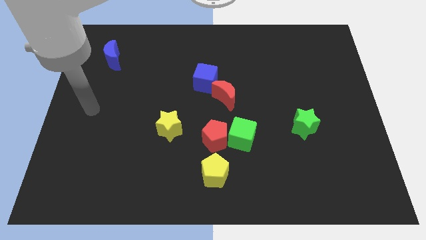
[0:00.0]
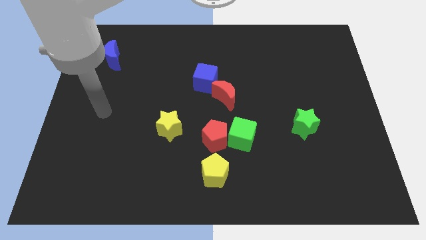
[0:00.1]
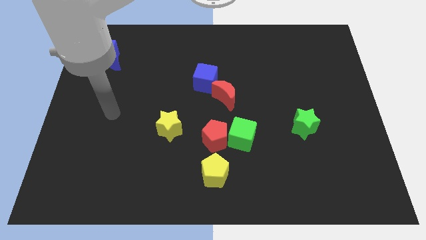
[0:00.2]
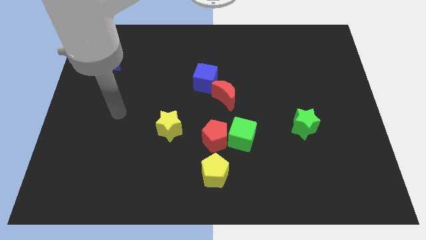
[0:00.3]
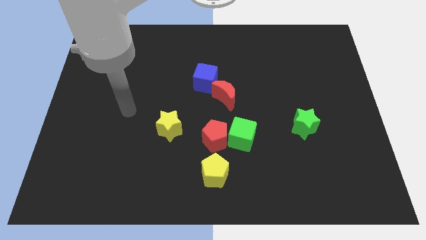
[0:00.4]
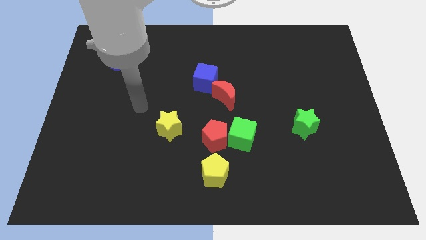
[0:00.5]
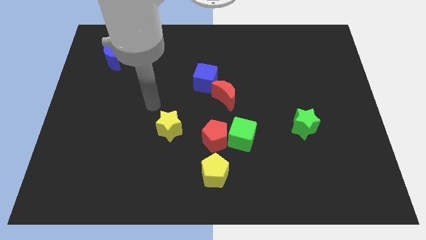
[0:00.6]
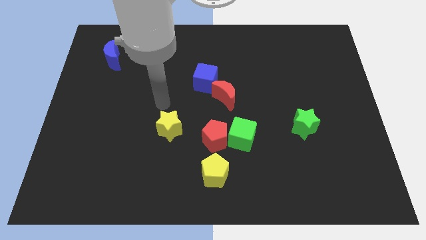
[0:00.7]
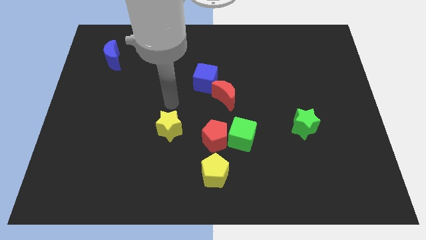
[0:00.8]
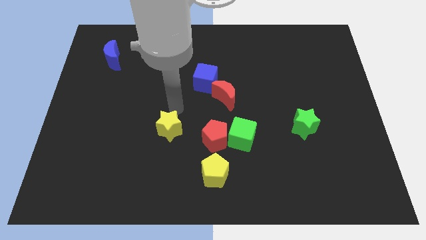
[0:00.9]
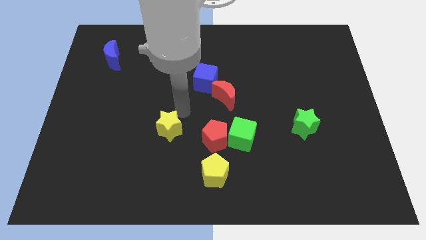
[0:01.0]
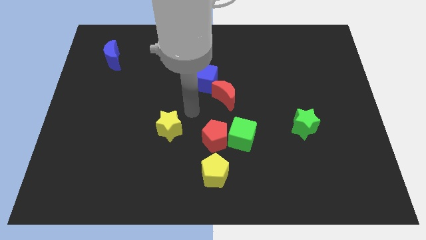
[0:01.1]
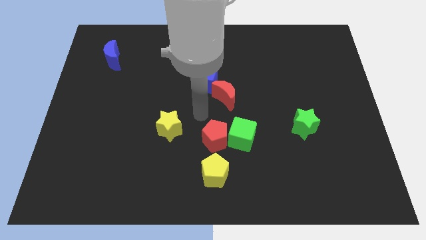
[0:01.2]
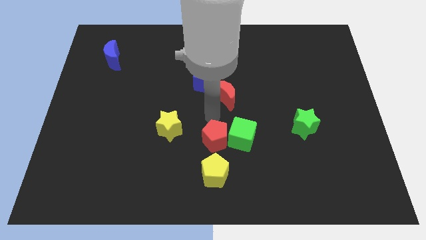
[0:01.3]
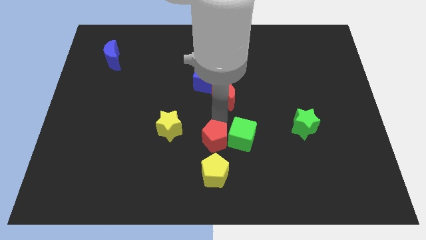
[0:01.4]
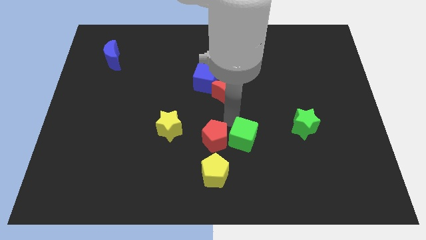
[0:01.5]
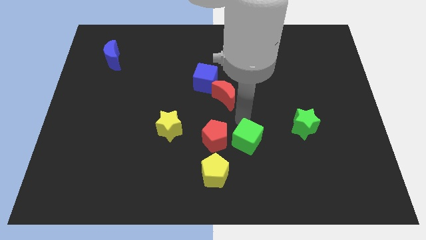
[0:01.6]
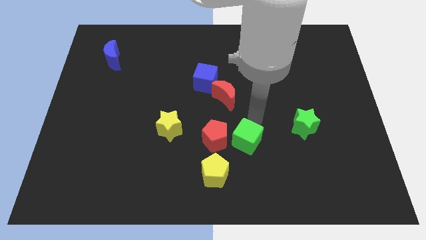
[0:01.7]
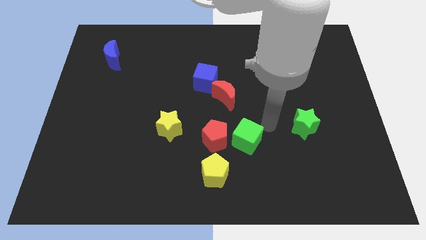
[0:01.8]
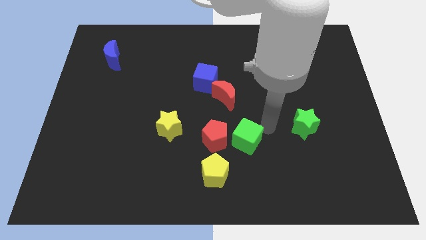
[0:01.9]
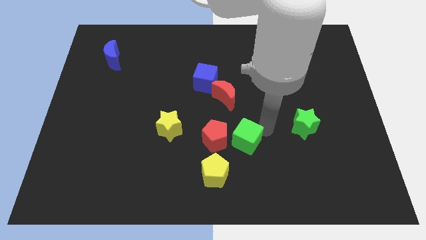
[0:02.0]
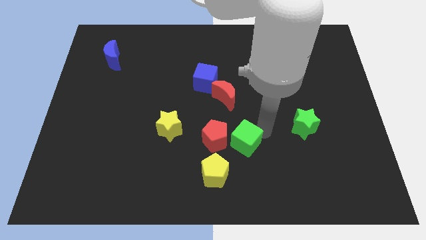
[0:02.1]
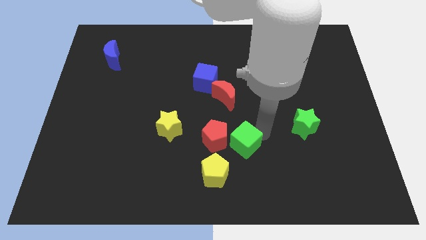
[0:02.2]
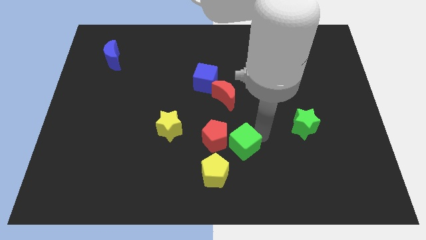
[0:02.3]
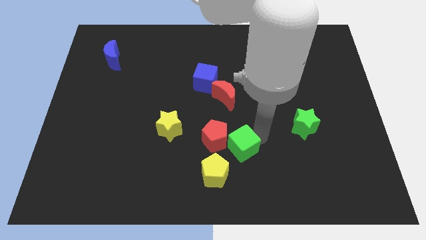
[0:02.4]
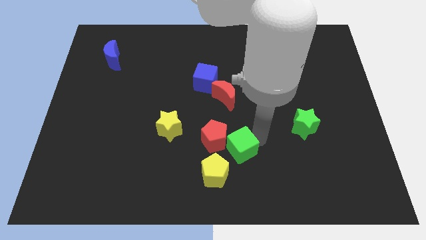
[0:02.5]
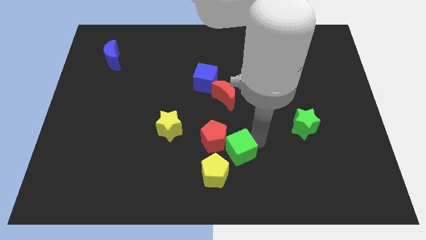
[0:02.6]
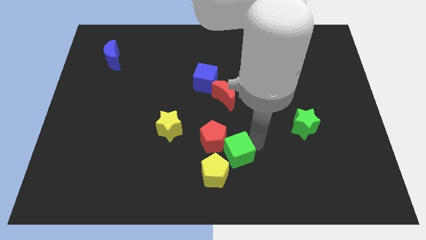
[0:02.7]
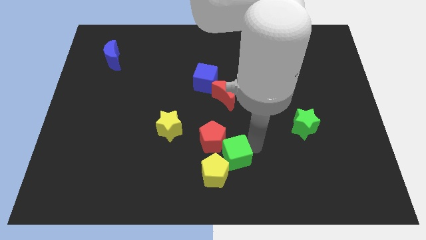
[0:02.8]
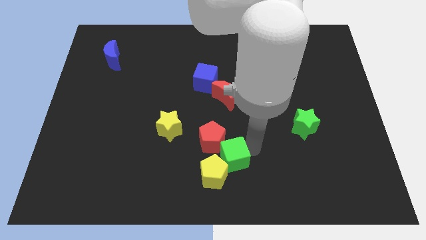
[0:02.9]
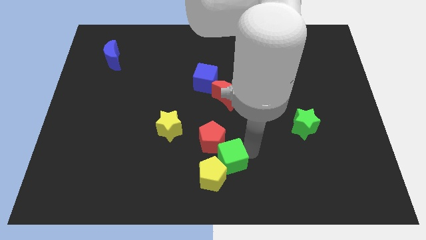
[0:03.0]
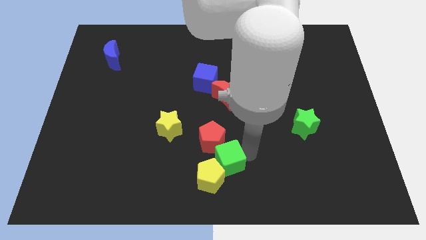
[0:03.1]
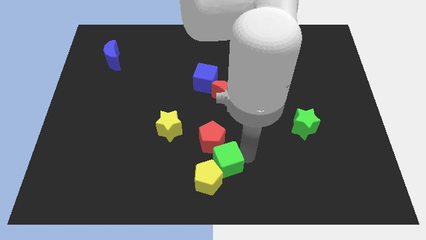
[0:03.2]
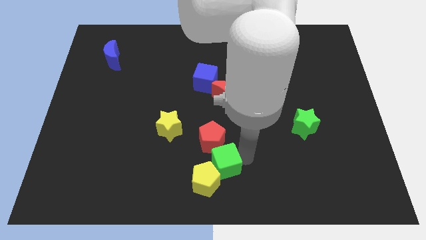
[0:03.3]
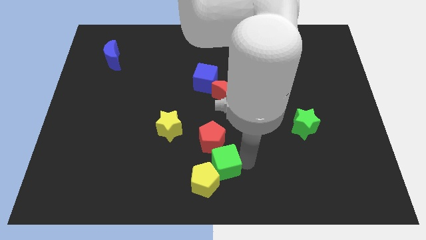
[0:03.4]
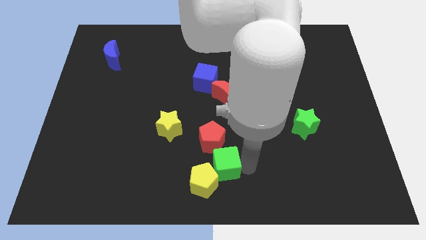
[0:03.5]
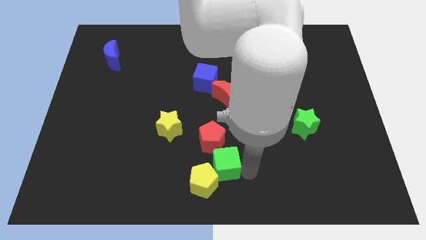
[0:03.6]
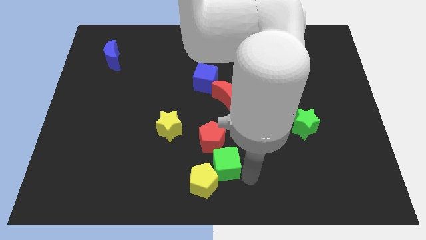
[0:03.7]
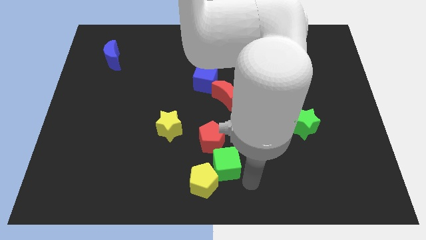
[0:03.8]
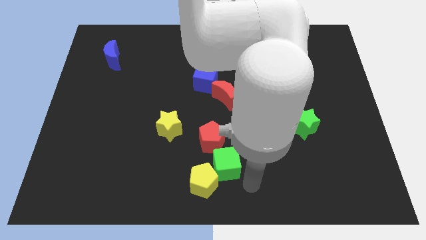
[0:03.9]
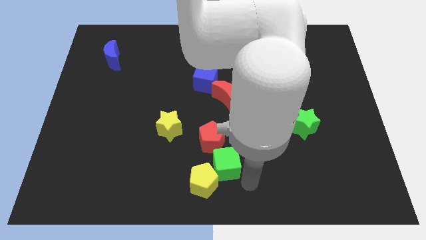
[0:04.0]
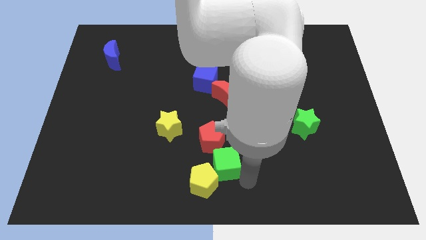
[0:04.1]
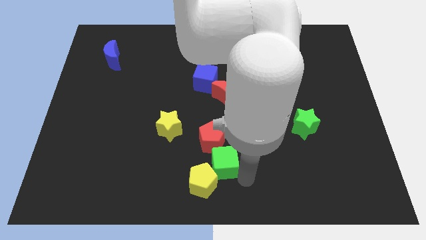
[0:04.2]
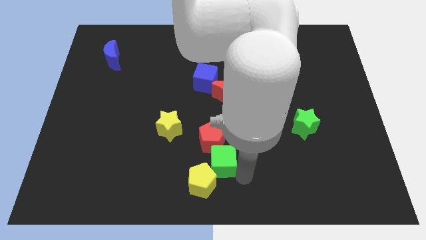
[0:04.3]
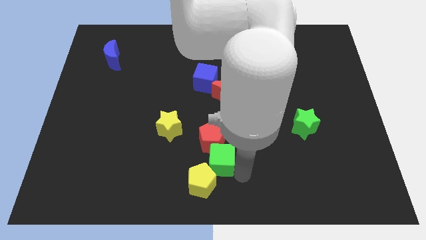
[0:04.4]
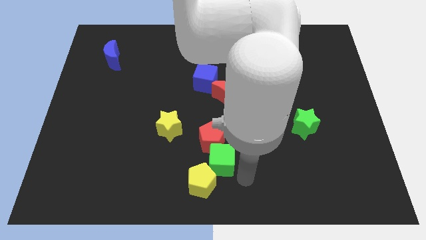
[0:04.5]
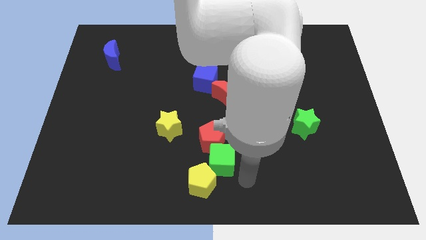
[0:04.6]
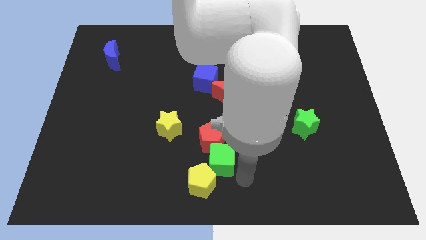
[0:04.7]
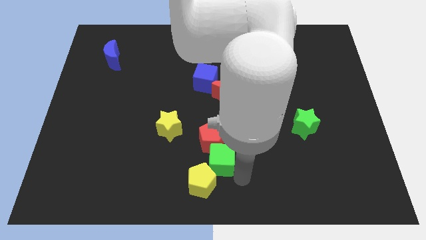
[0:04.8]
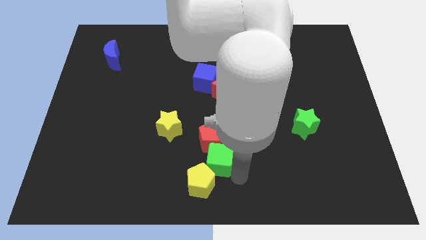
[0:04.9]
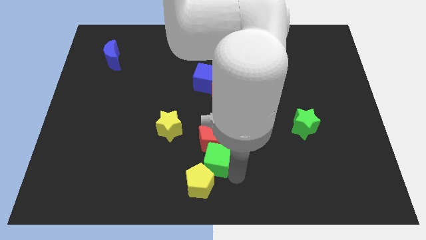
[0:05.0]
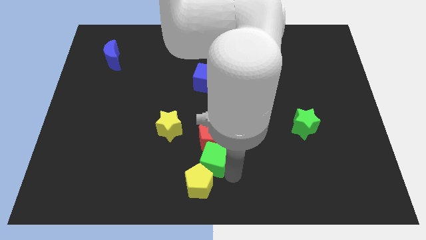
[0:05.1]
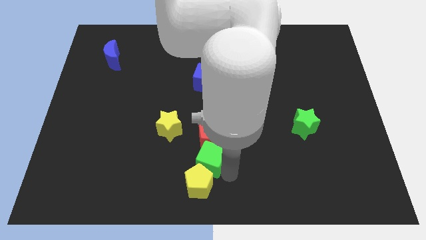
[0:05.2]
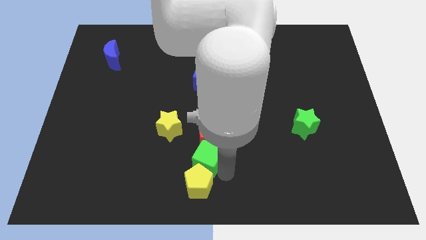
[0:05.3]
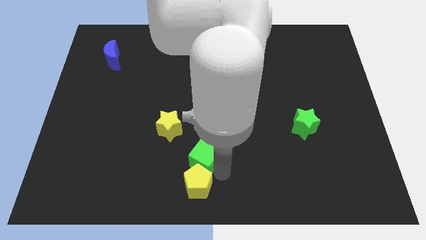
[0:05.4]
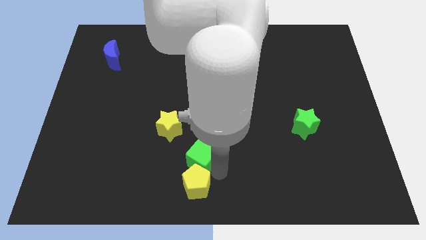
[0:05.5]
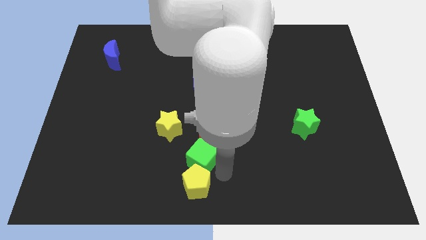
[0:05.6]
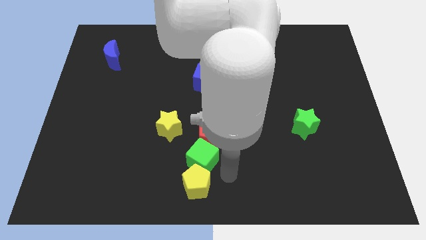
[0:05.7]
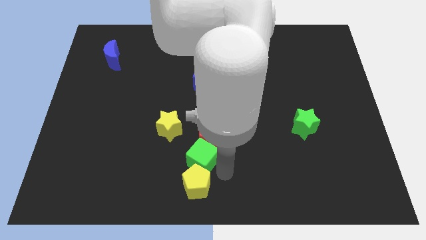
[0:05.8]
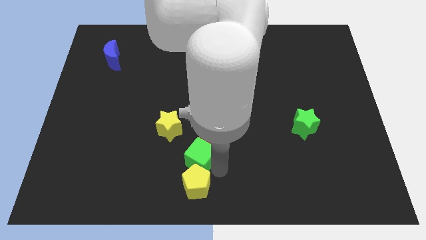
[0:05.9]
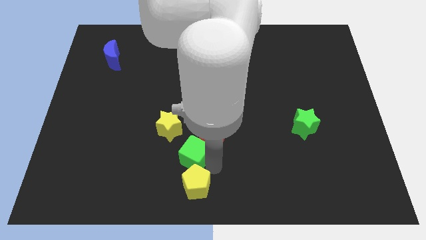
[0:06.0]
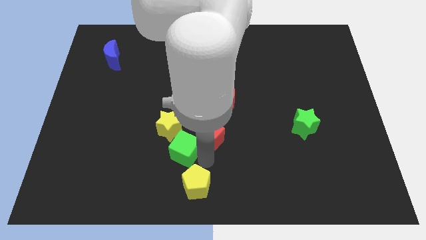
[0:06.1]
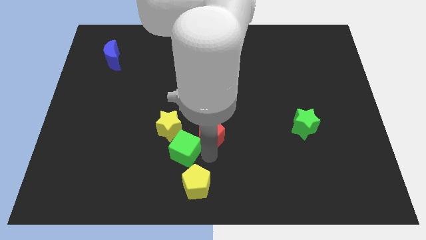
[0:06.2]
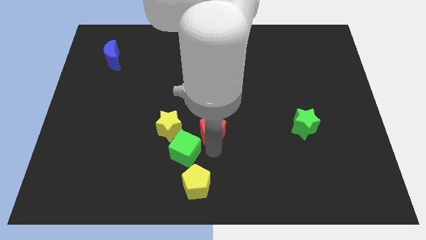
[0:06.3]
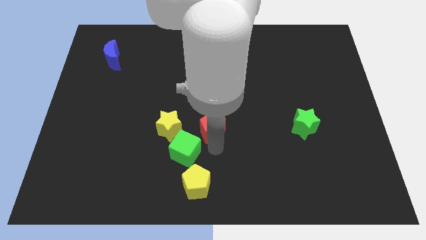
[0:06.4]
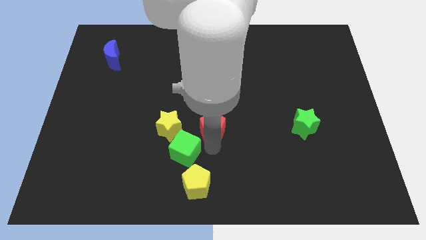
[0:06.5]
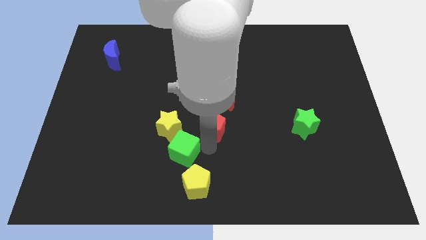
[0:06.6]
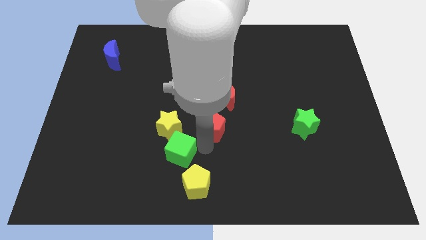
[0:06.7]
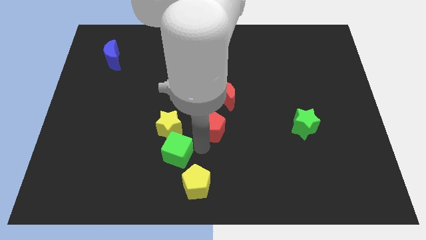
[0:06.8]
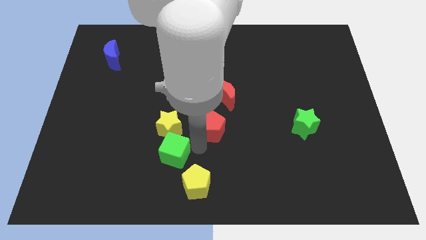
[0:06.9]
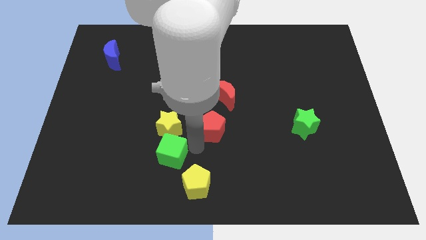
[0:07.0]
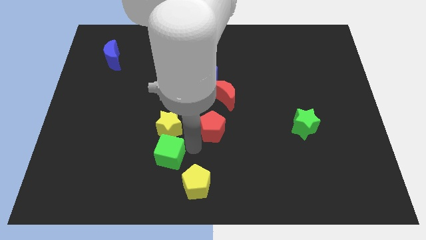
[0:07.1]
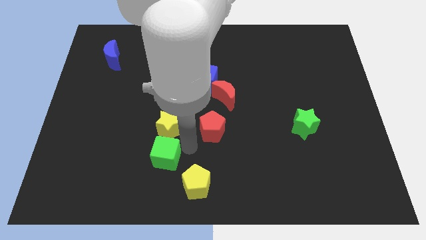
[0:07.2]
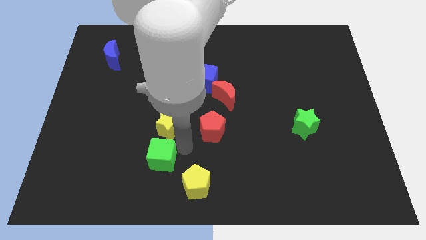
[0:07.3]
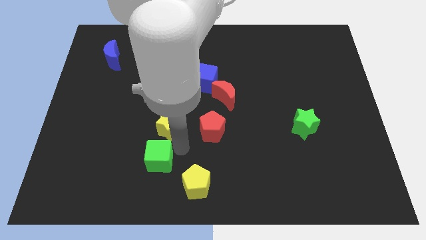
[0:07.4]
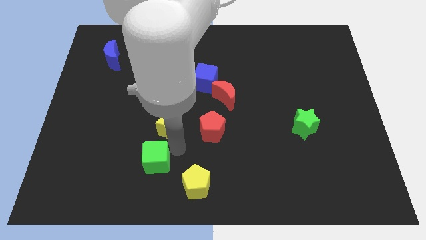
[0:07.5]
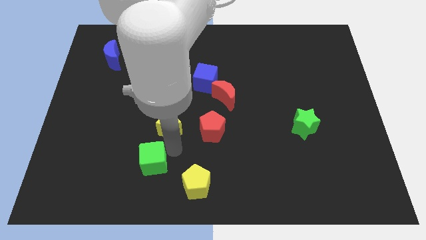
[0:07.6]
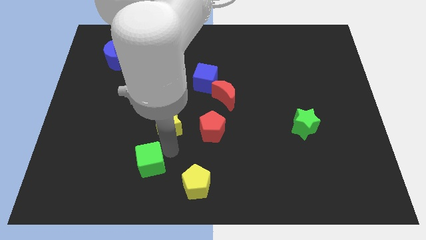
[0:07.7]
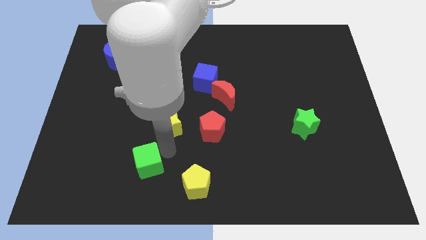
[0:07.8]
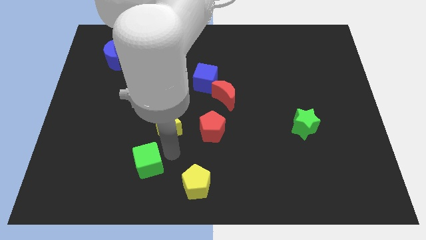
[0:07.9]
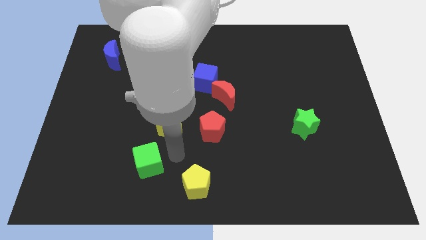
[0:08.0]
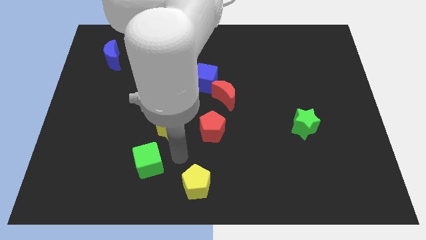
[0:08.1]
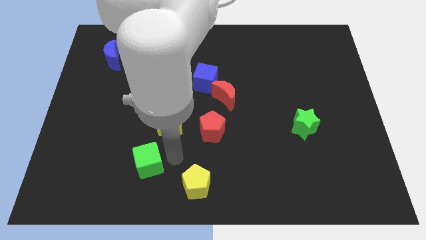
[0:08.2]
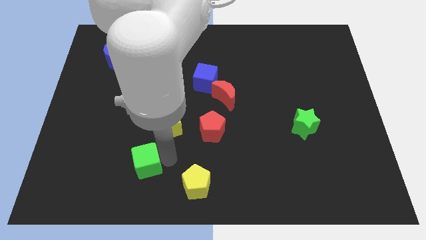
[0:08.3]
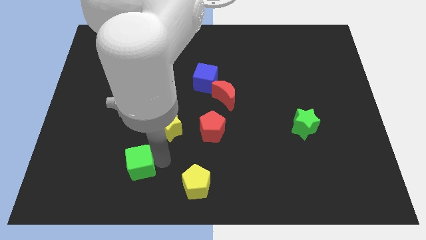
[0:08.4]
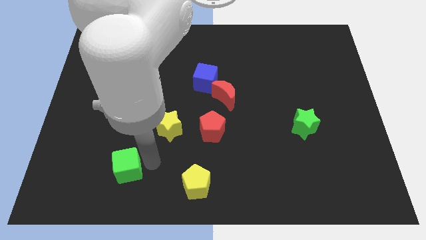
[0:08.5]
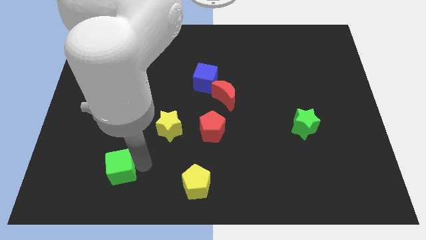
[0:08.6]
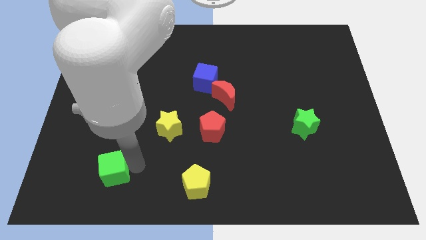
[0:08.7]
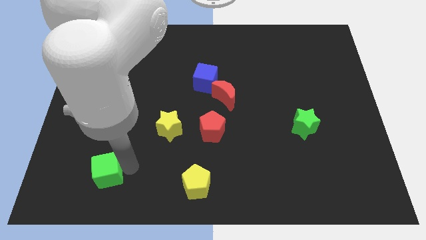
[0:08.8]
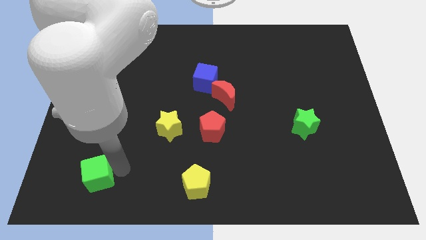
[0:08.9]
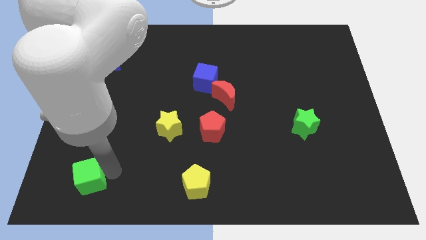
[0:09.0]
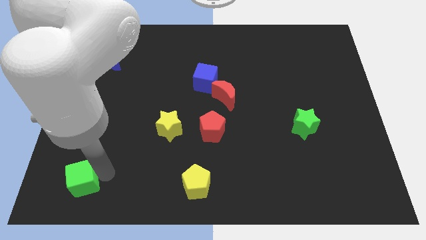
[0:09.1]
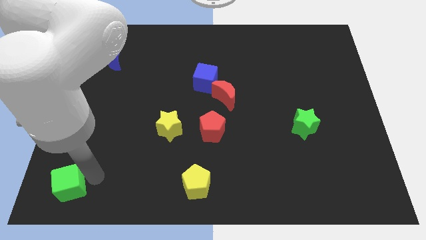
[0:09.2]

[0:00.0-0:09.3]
move the green cube to the lower left corner
